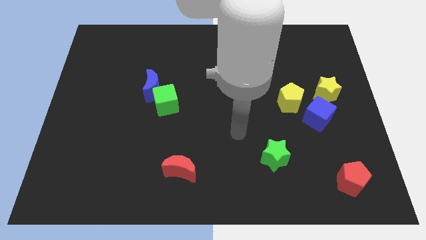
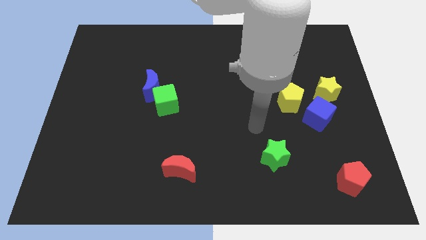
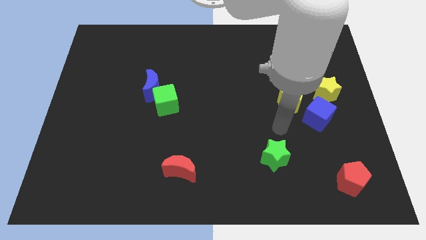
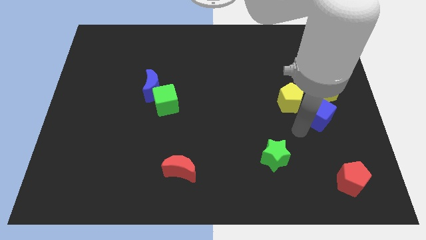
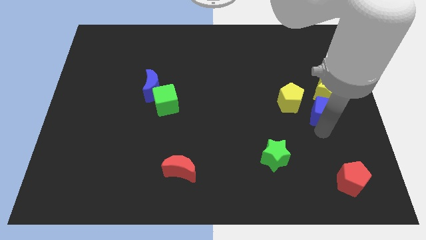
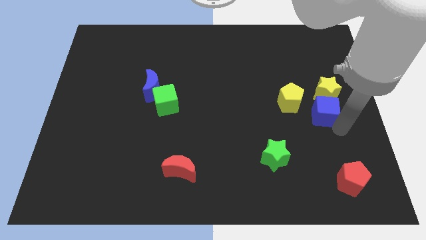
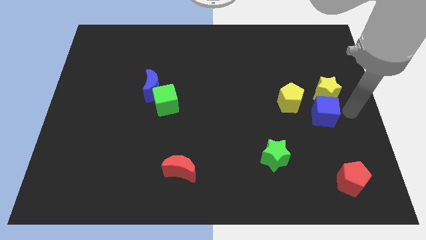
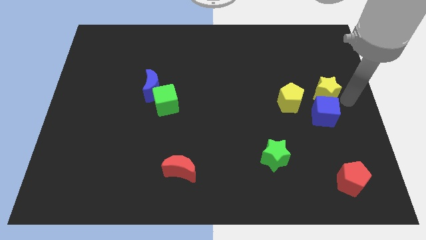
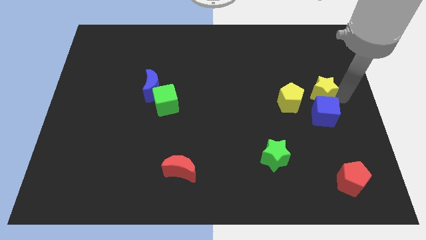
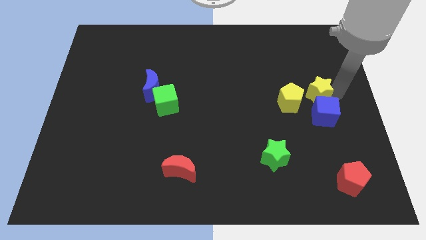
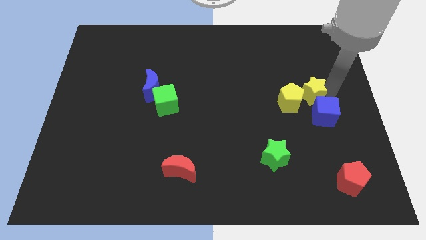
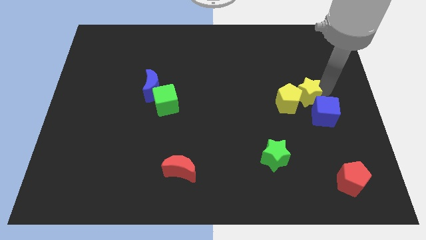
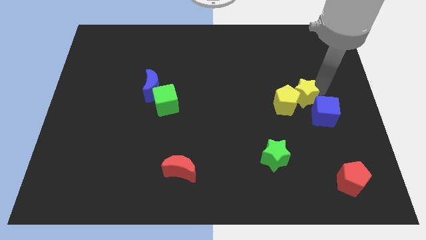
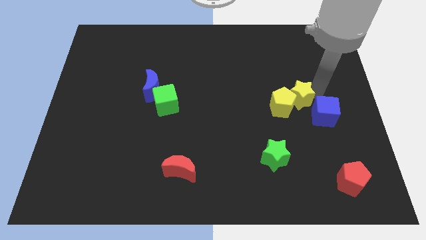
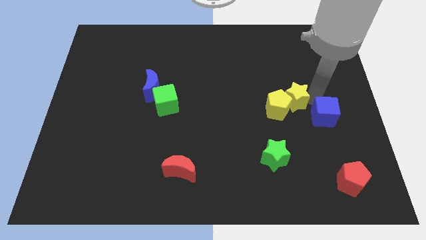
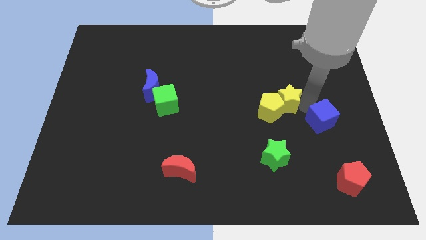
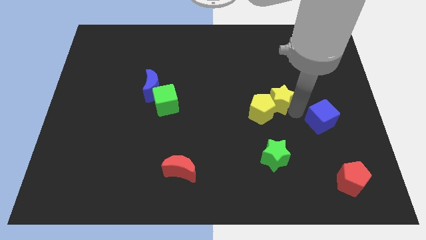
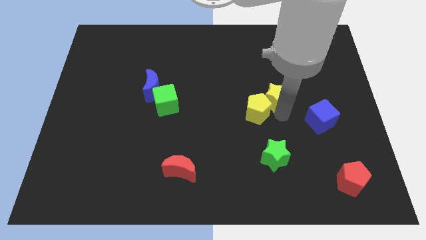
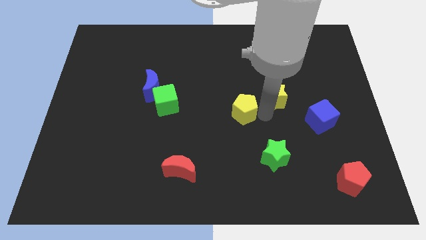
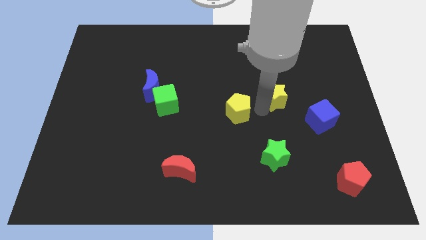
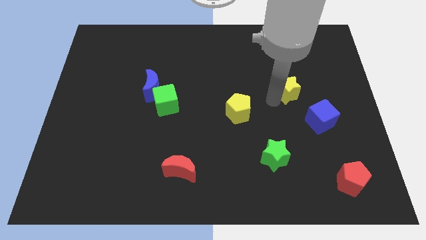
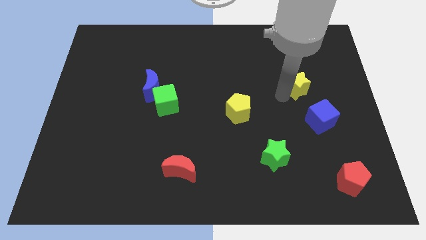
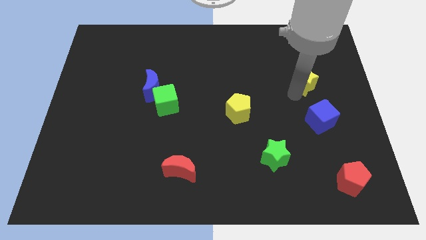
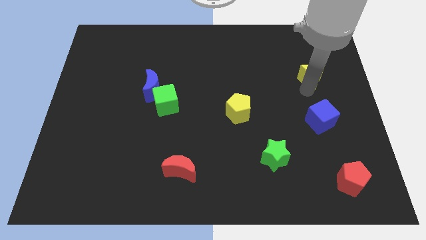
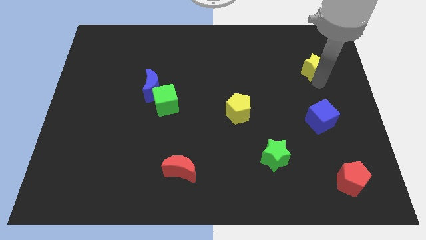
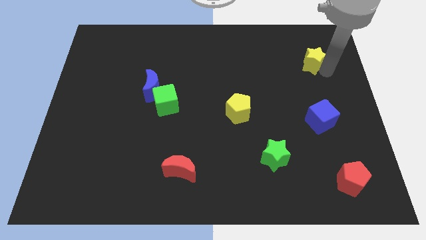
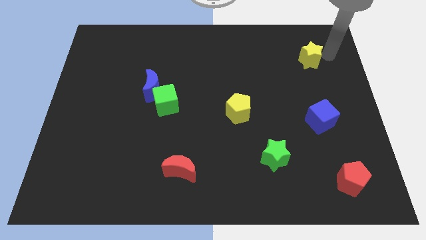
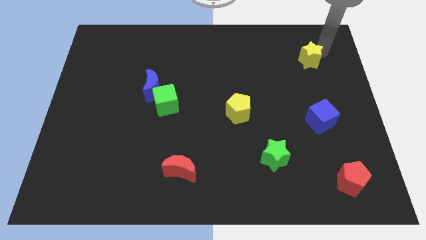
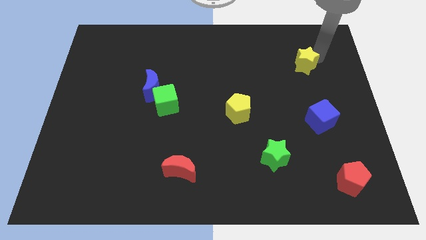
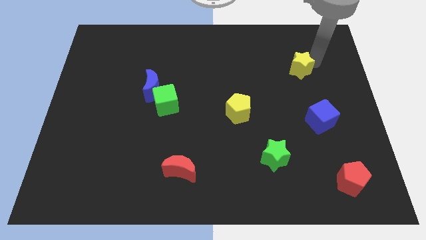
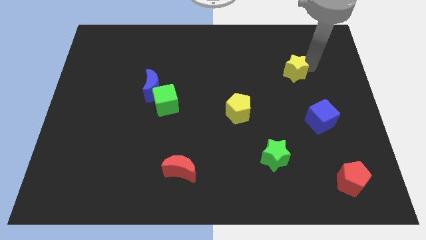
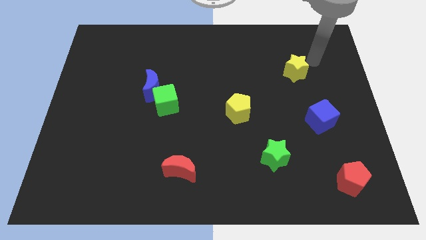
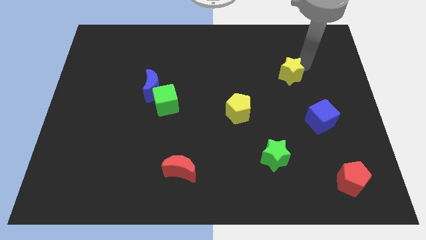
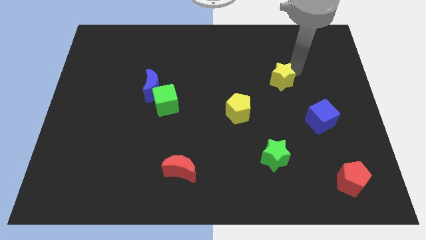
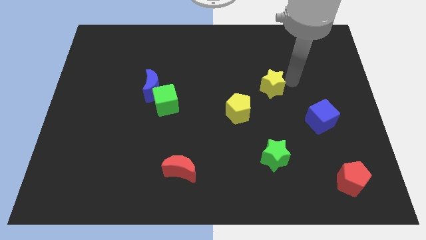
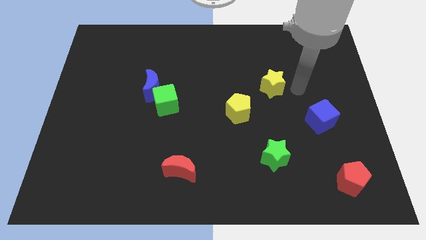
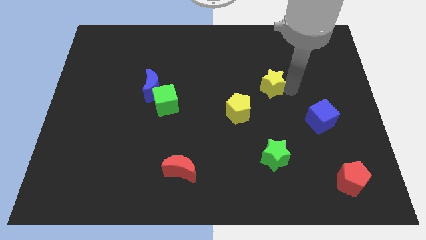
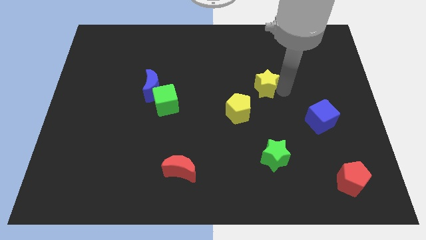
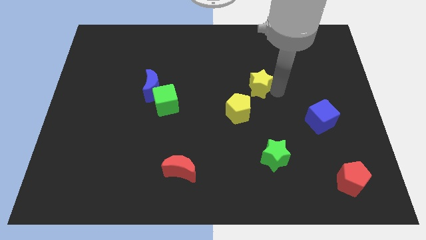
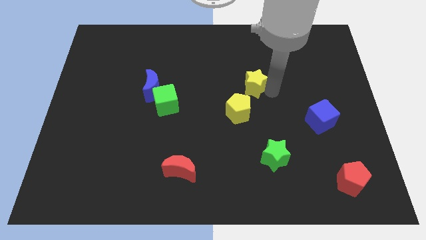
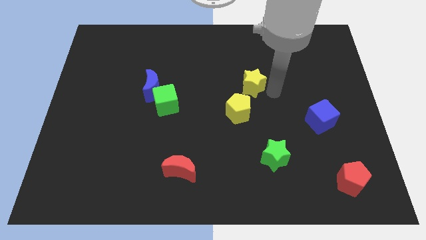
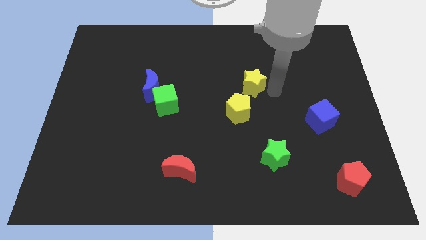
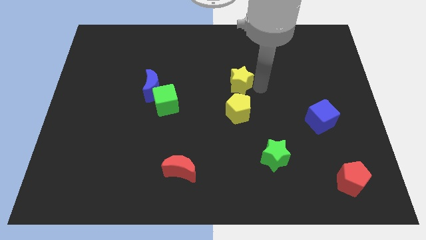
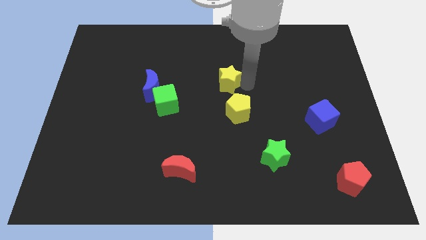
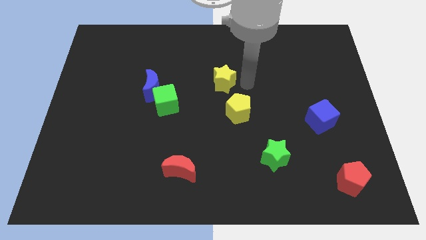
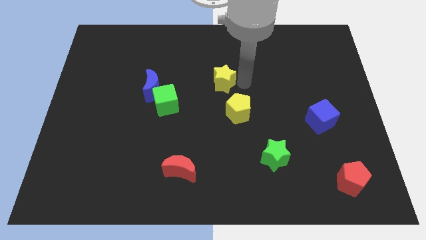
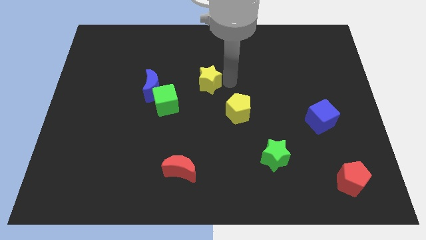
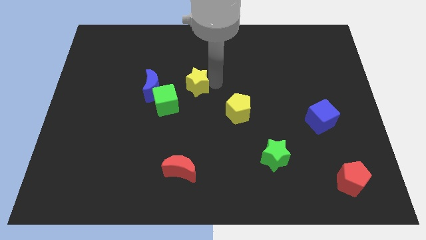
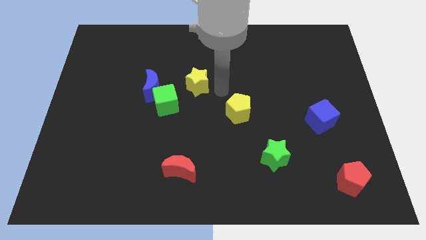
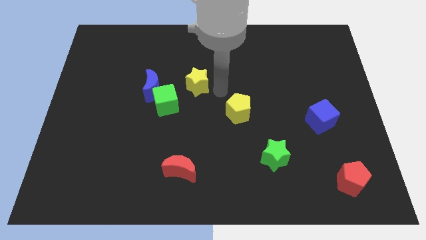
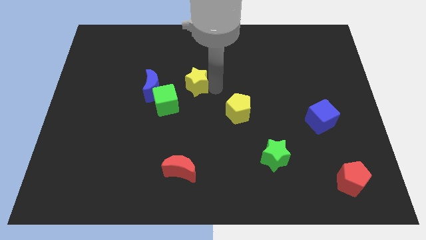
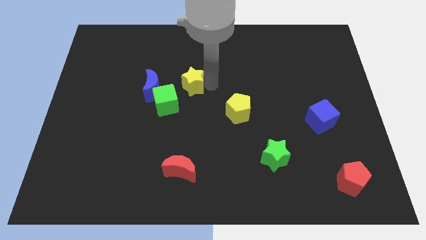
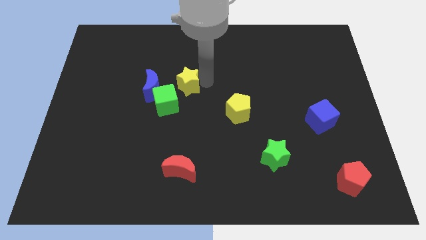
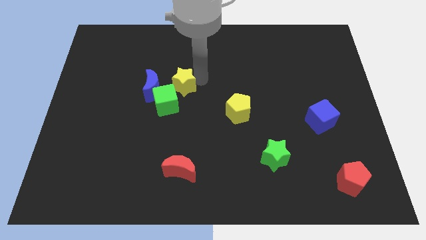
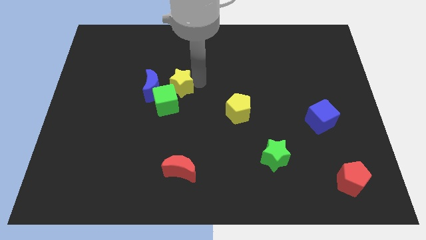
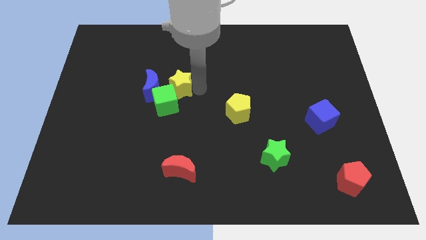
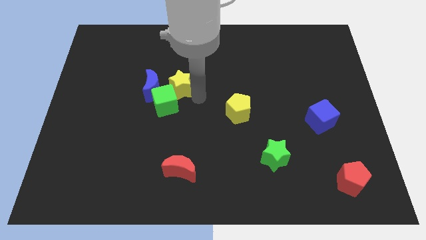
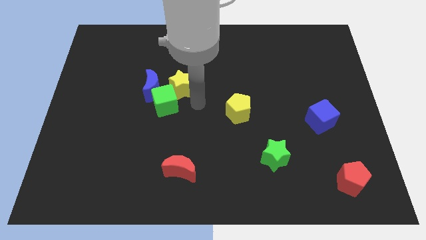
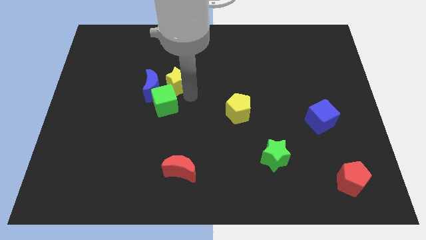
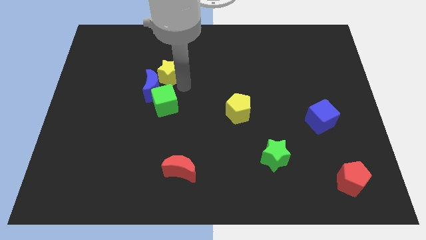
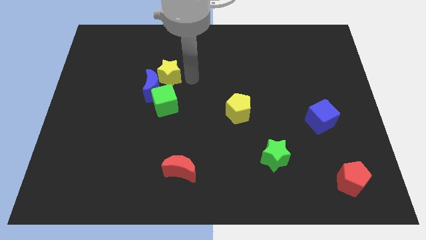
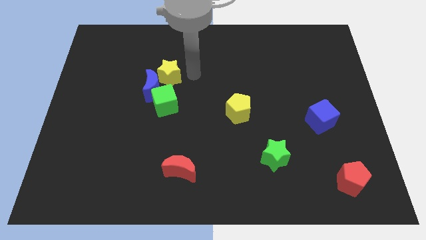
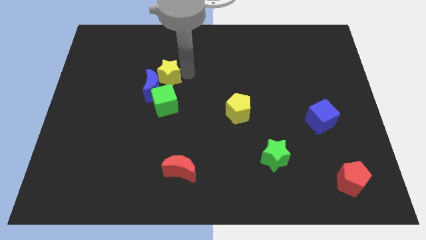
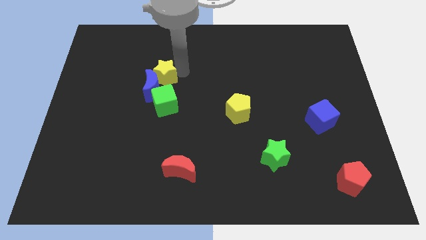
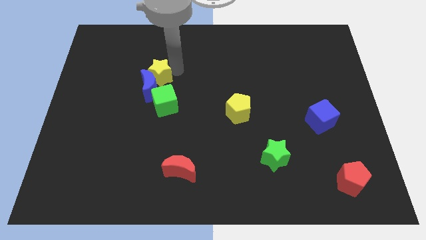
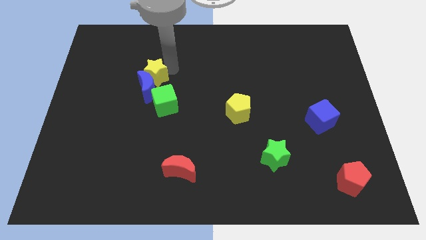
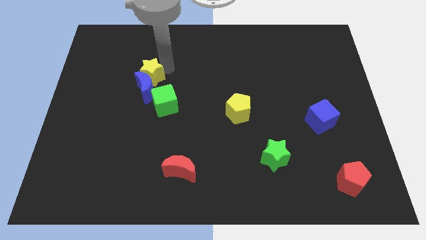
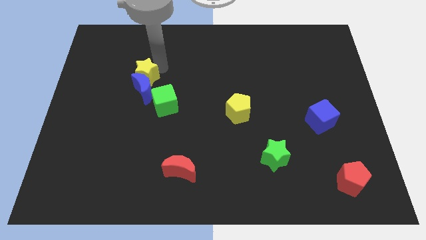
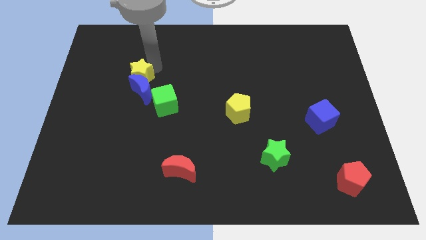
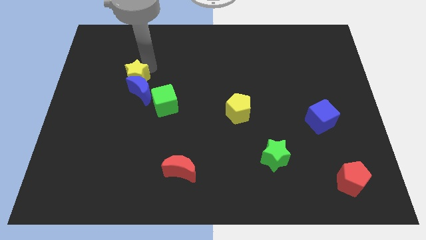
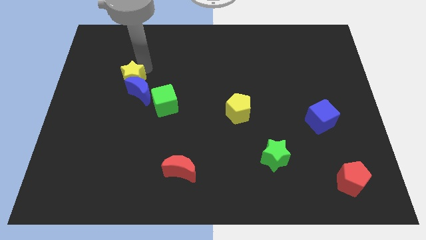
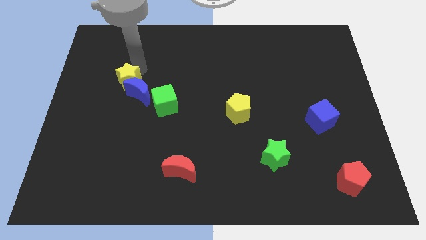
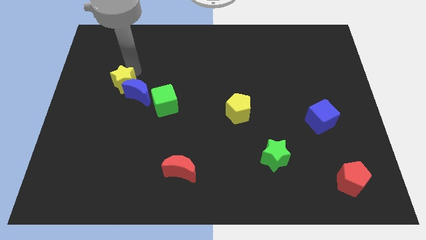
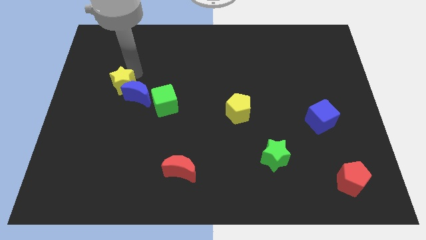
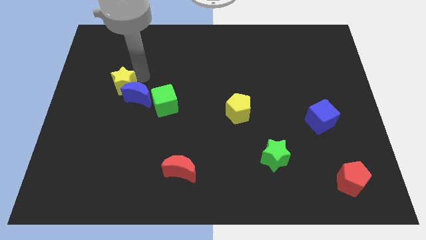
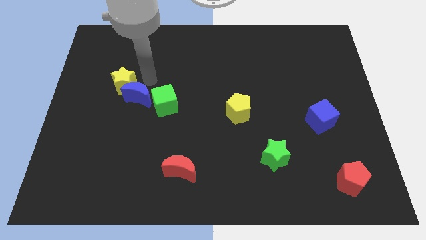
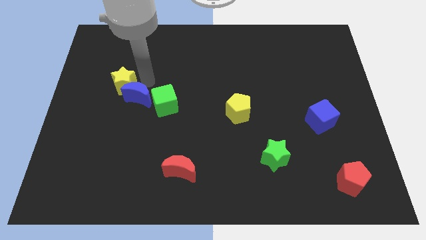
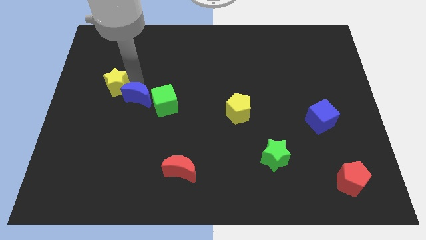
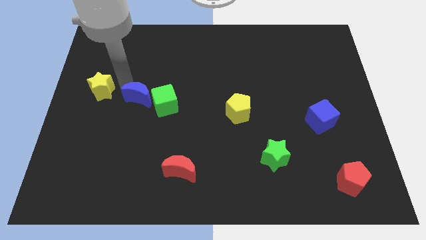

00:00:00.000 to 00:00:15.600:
move the yellow star to the left side of the board
